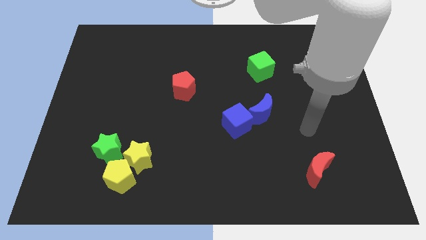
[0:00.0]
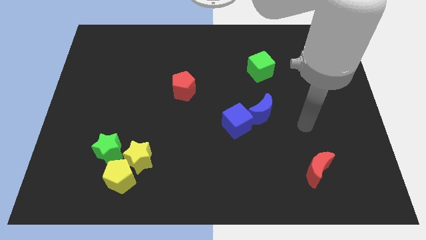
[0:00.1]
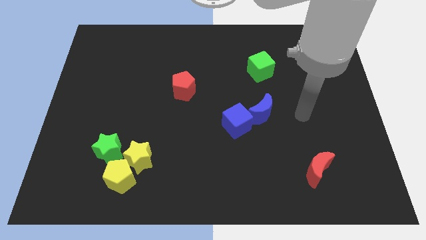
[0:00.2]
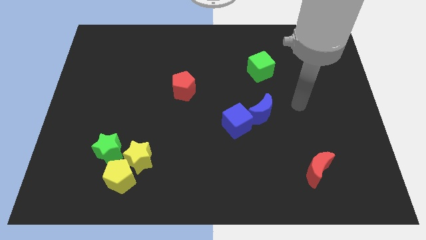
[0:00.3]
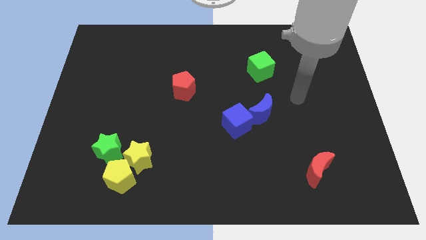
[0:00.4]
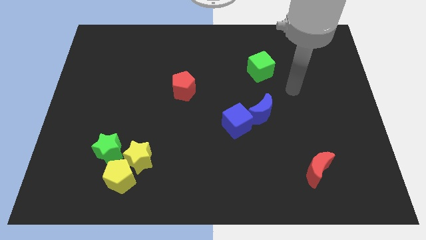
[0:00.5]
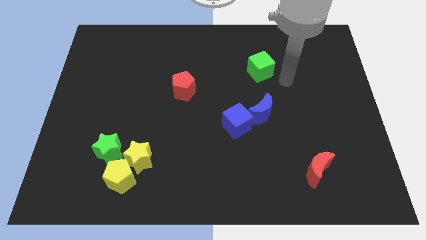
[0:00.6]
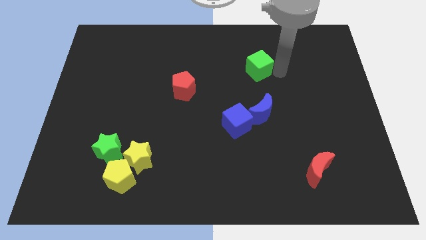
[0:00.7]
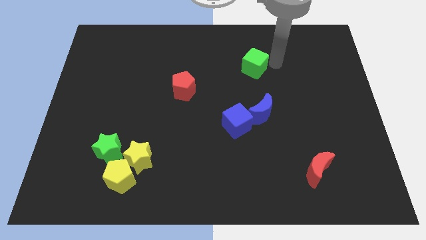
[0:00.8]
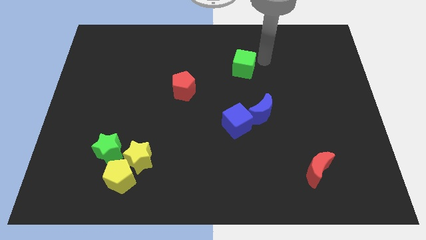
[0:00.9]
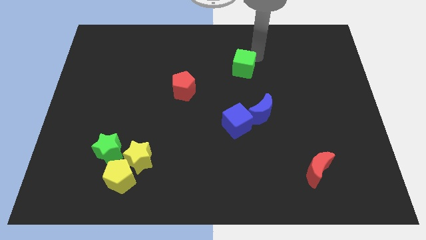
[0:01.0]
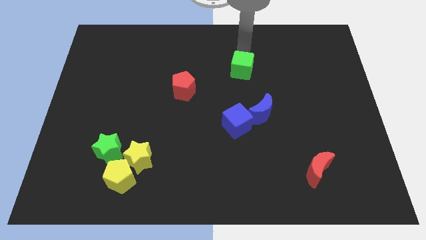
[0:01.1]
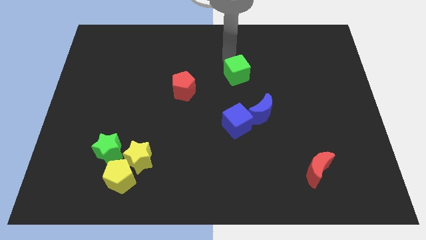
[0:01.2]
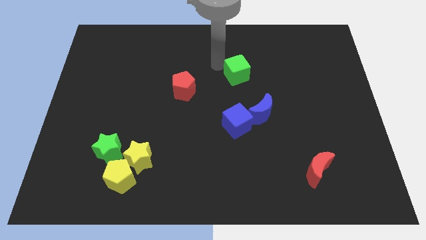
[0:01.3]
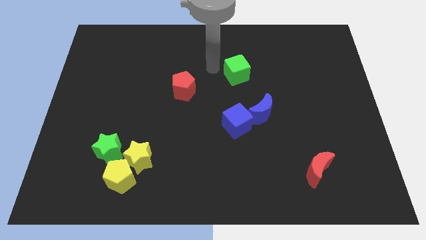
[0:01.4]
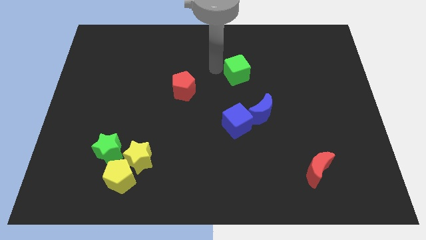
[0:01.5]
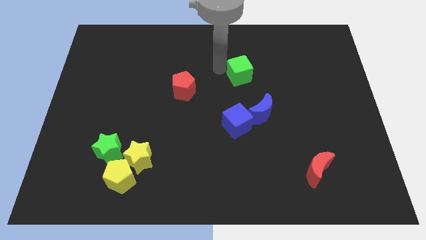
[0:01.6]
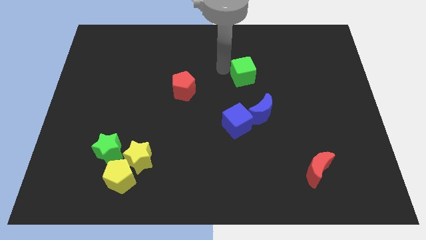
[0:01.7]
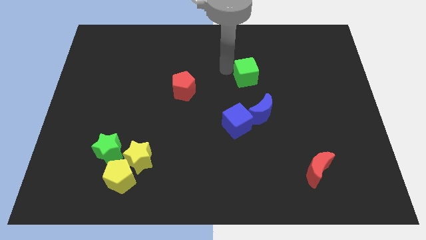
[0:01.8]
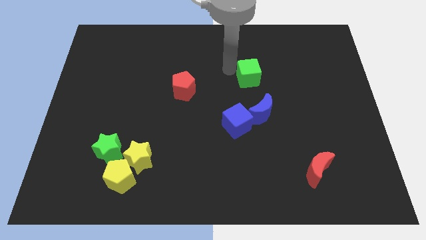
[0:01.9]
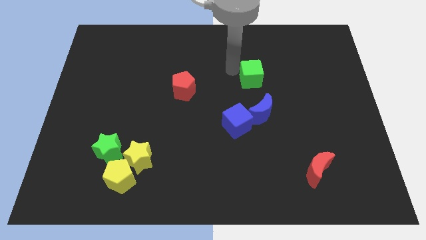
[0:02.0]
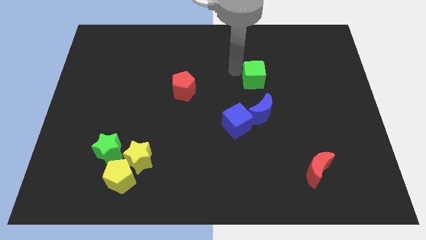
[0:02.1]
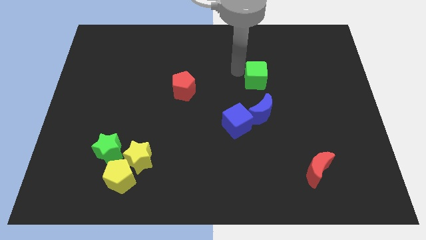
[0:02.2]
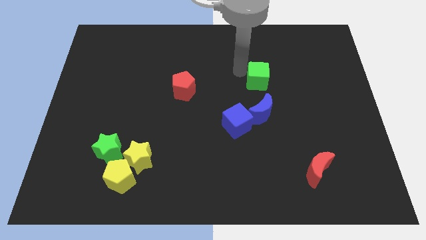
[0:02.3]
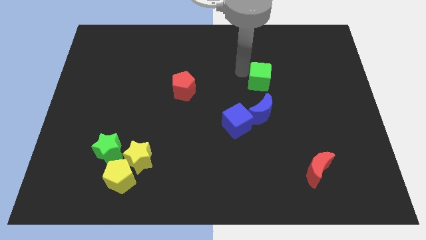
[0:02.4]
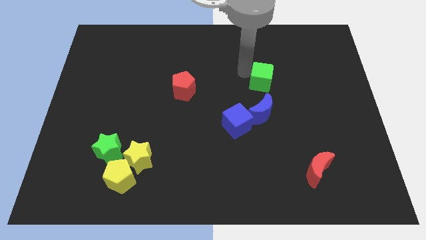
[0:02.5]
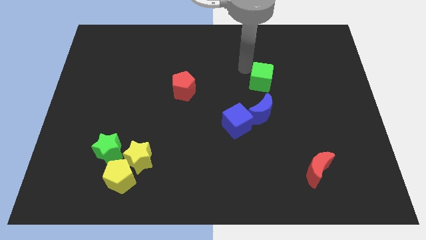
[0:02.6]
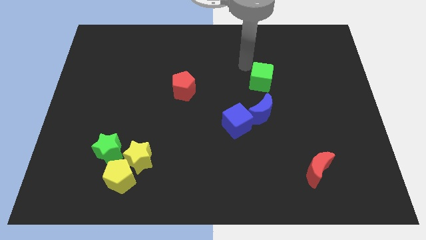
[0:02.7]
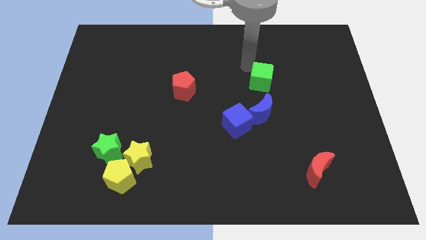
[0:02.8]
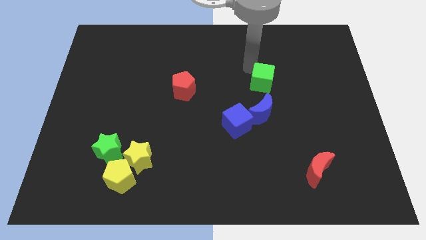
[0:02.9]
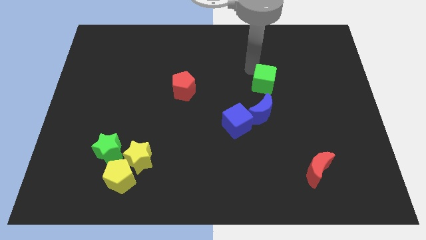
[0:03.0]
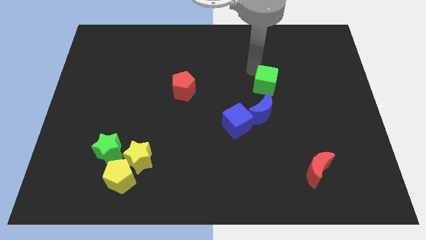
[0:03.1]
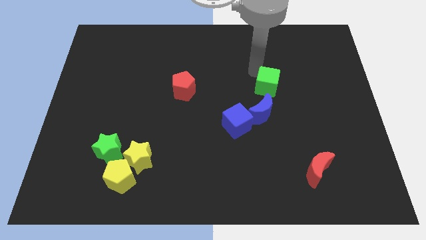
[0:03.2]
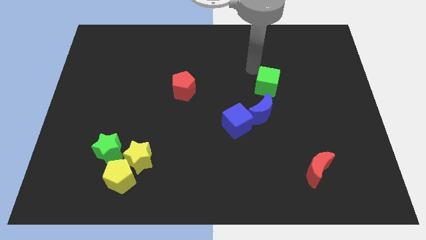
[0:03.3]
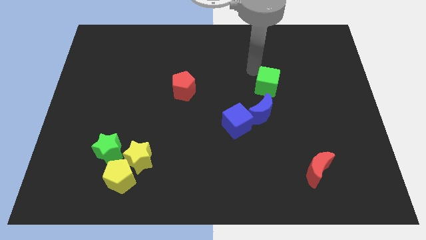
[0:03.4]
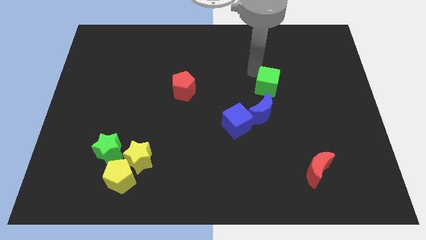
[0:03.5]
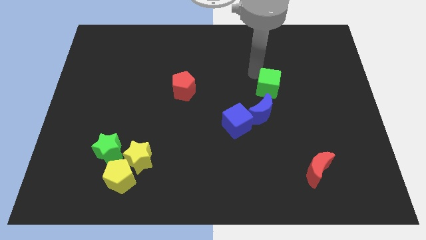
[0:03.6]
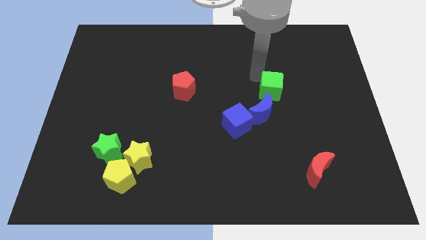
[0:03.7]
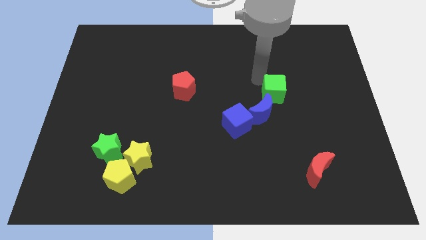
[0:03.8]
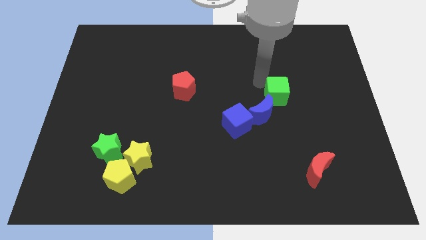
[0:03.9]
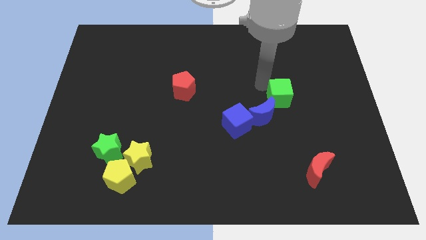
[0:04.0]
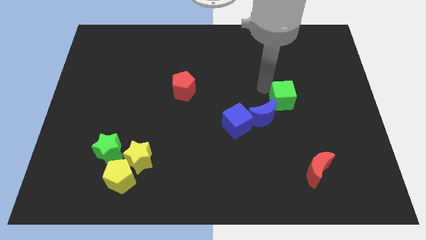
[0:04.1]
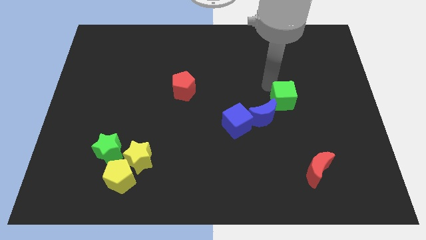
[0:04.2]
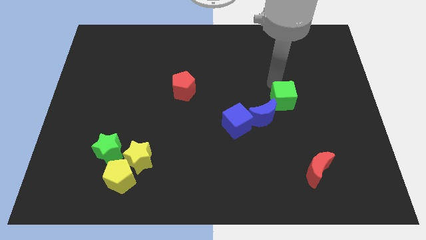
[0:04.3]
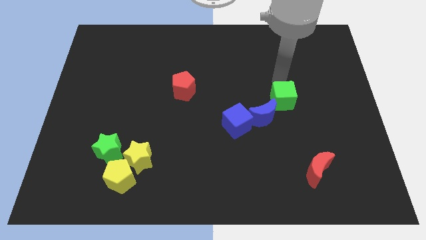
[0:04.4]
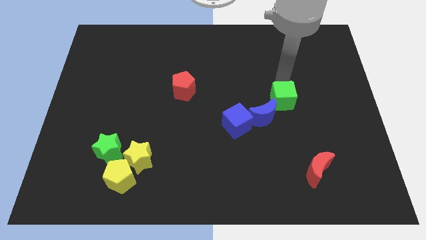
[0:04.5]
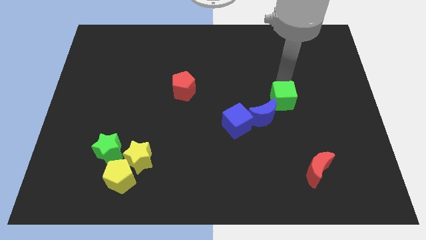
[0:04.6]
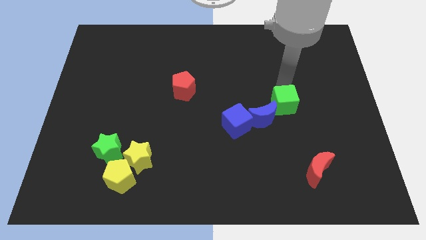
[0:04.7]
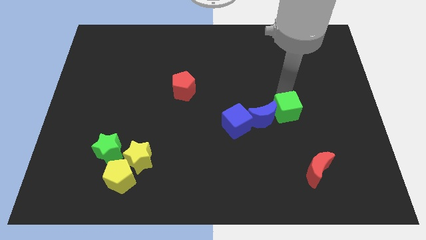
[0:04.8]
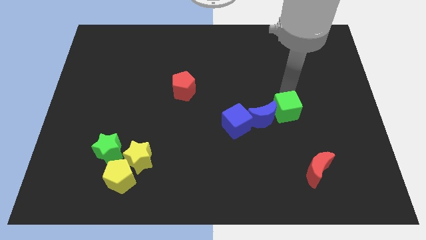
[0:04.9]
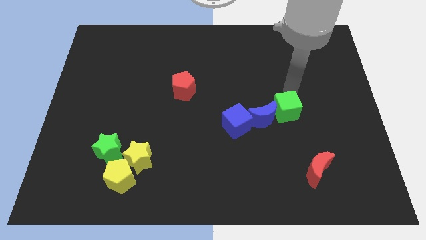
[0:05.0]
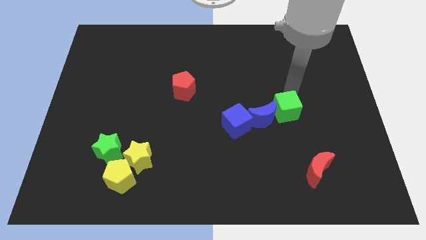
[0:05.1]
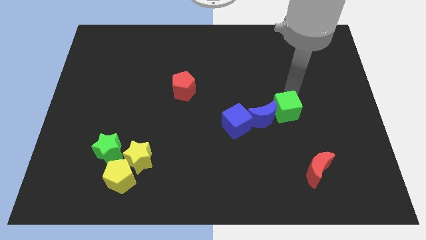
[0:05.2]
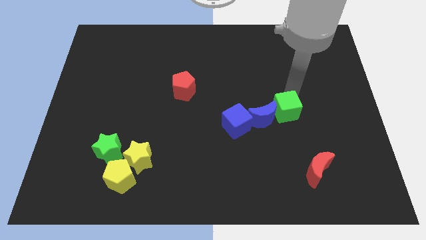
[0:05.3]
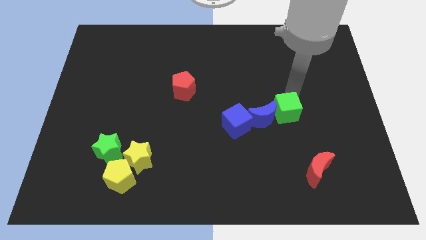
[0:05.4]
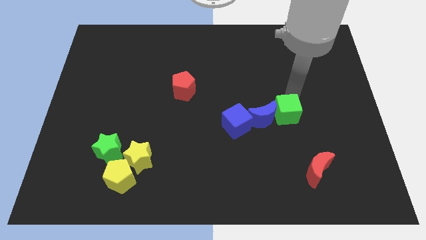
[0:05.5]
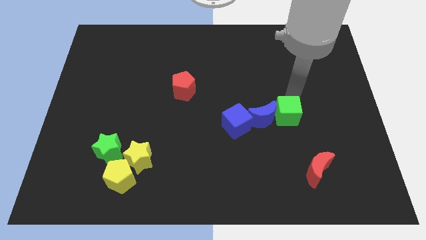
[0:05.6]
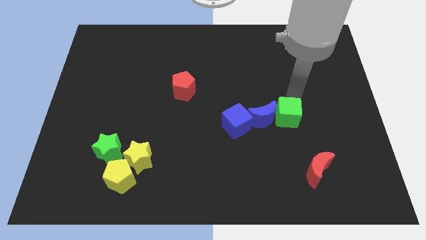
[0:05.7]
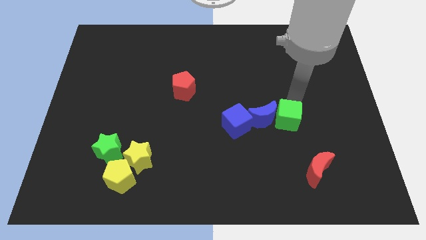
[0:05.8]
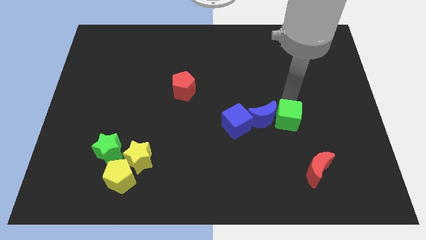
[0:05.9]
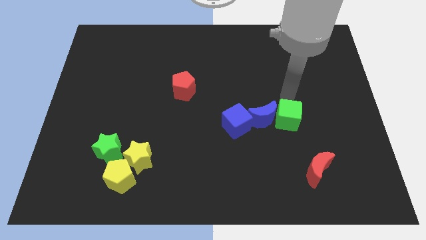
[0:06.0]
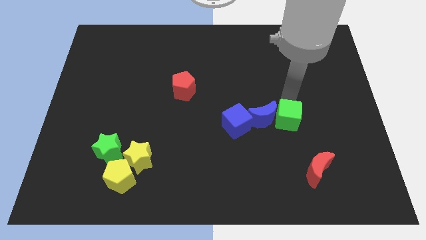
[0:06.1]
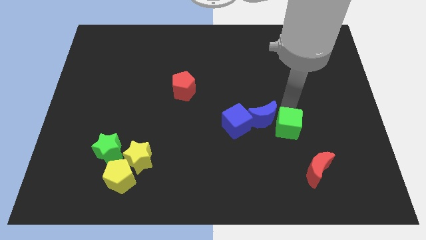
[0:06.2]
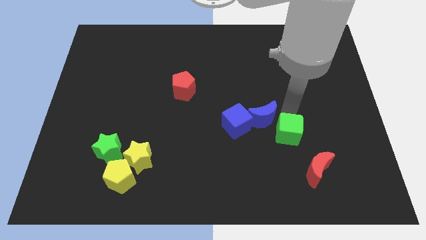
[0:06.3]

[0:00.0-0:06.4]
put the green cube to the top left of the red moon
